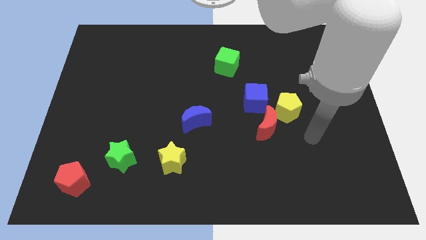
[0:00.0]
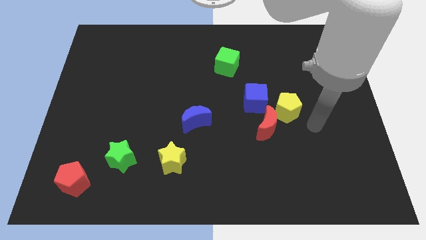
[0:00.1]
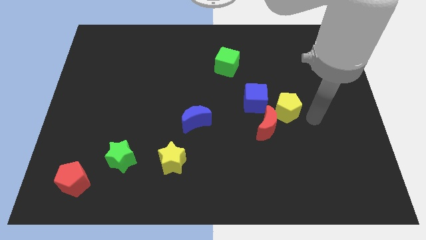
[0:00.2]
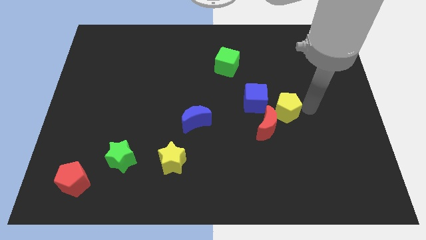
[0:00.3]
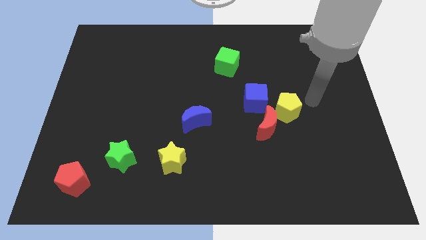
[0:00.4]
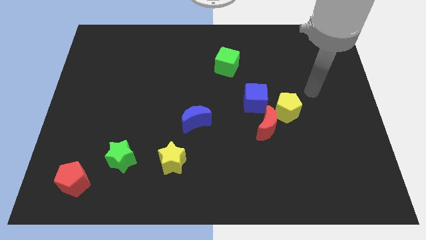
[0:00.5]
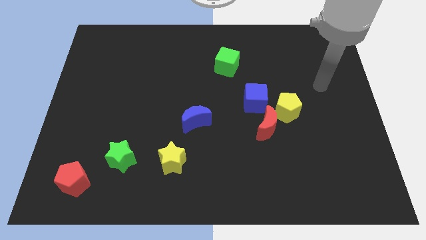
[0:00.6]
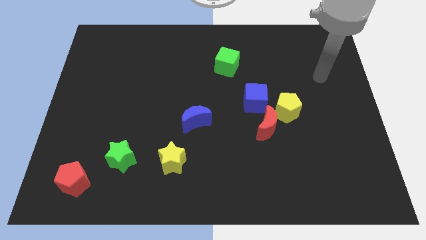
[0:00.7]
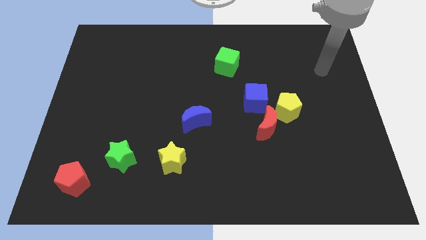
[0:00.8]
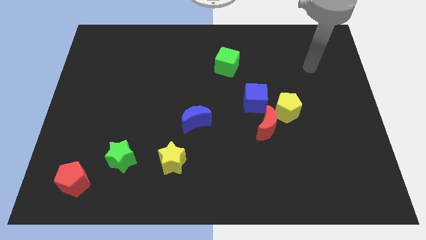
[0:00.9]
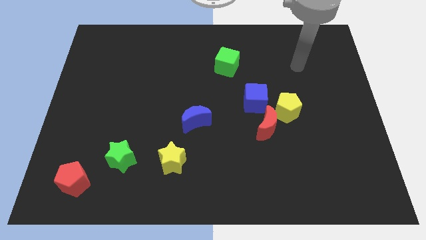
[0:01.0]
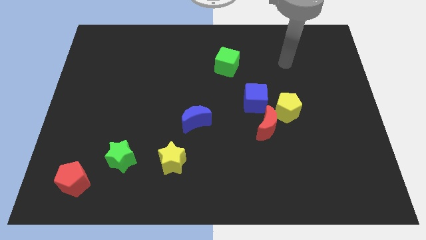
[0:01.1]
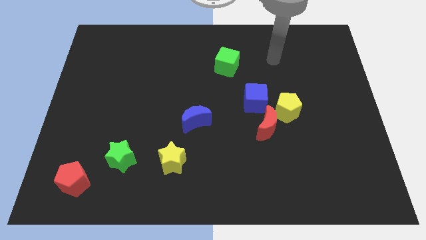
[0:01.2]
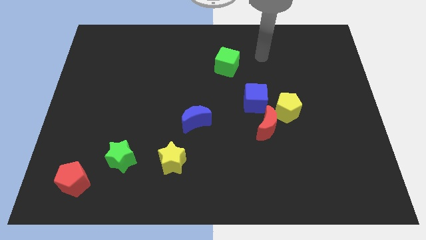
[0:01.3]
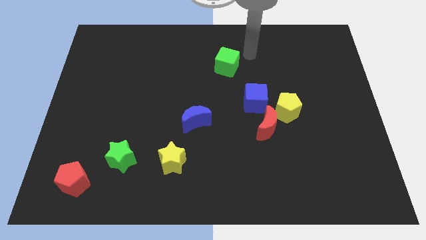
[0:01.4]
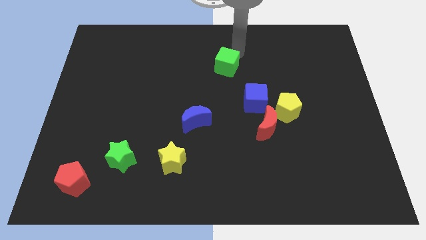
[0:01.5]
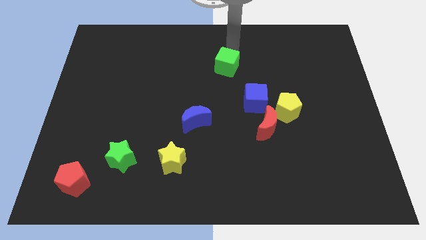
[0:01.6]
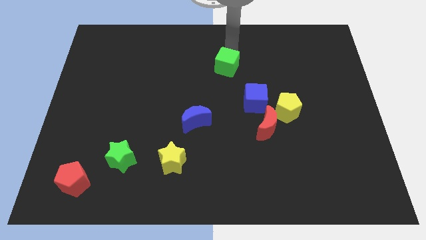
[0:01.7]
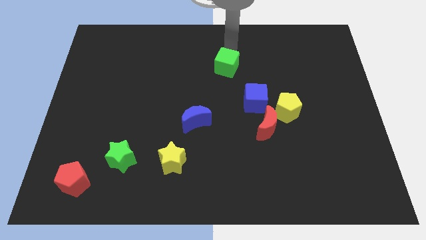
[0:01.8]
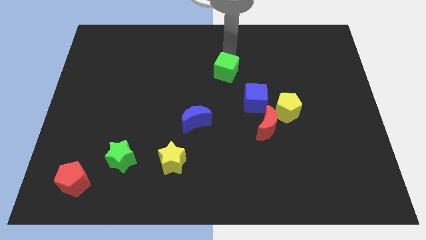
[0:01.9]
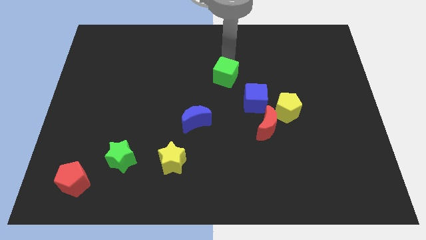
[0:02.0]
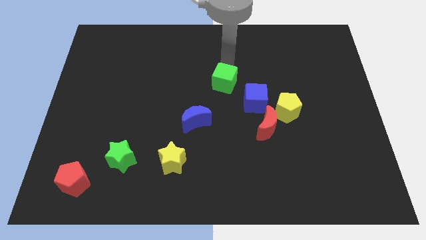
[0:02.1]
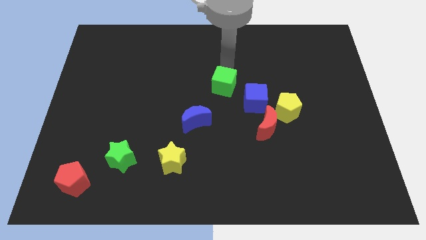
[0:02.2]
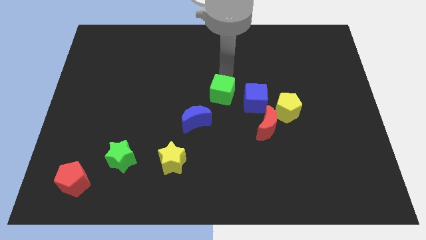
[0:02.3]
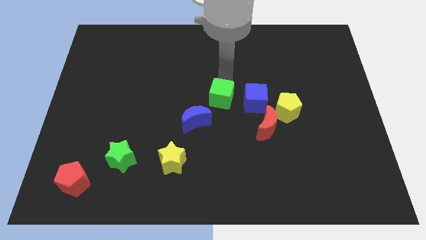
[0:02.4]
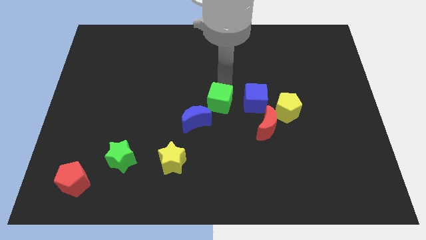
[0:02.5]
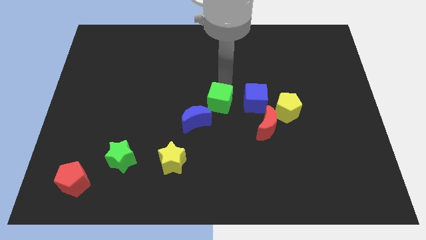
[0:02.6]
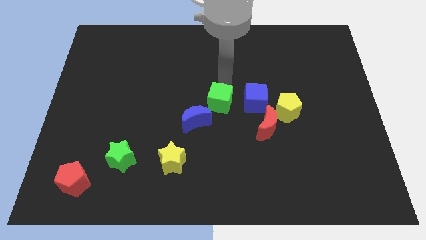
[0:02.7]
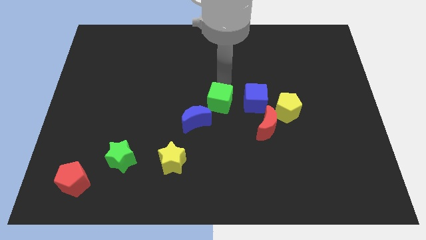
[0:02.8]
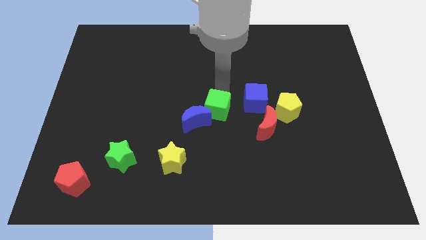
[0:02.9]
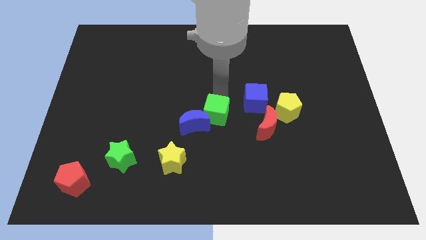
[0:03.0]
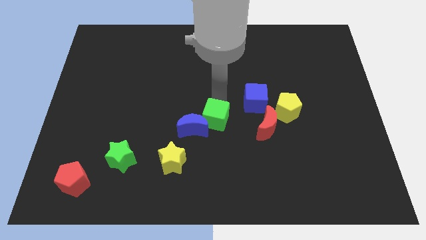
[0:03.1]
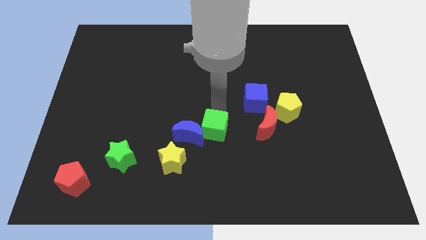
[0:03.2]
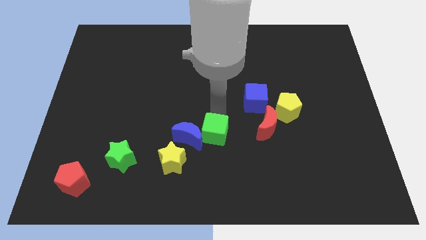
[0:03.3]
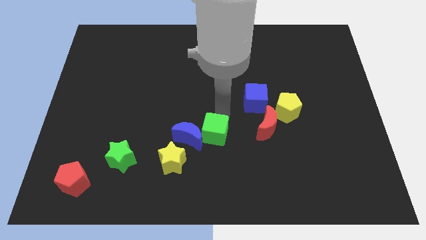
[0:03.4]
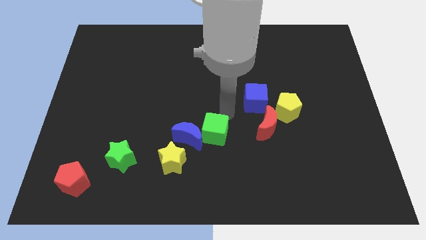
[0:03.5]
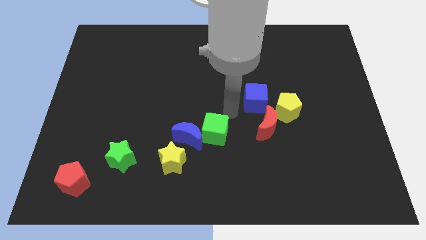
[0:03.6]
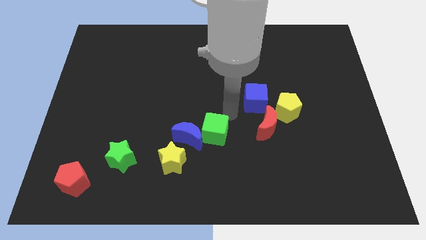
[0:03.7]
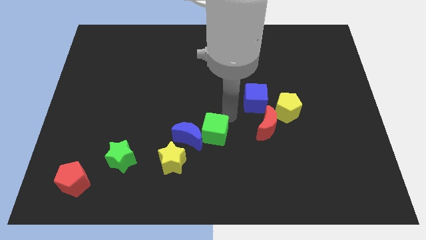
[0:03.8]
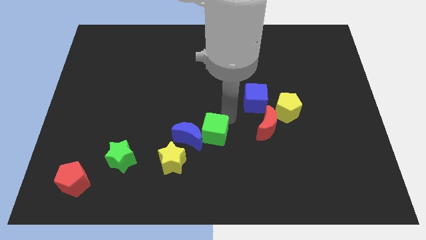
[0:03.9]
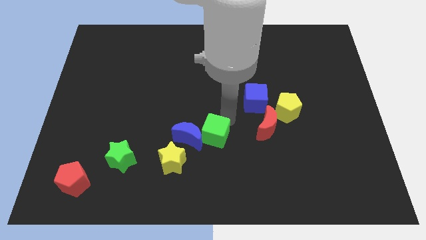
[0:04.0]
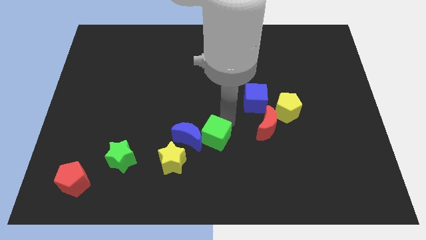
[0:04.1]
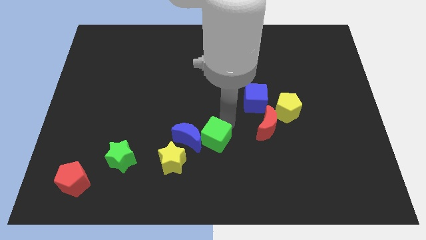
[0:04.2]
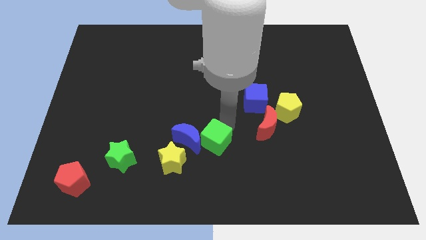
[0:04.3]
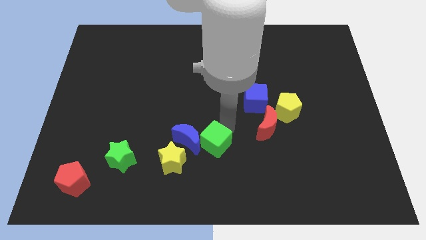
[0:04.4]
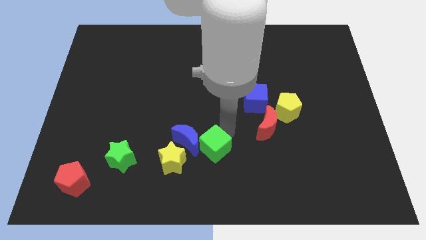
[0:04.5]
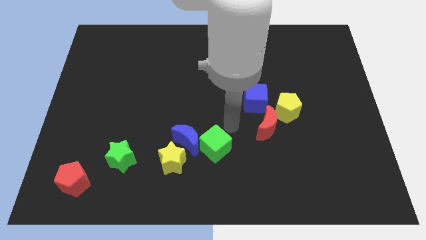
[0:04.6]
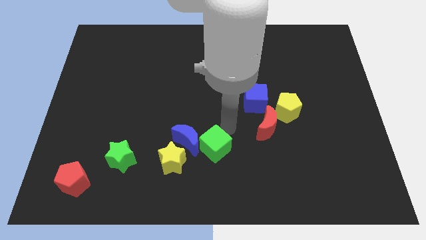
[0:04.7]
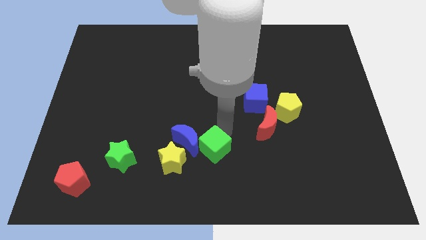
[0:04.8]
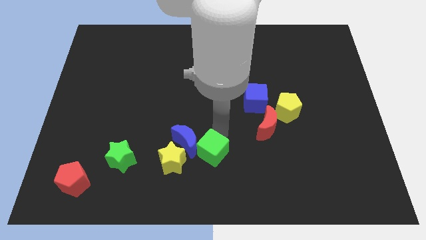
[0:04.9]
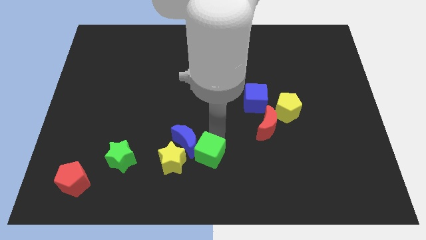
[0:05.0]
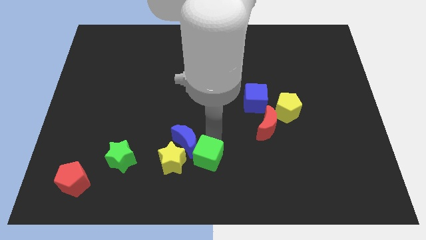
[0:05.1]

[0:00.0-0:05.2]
slide the green cube below the blue moon

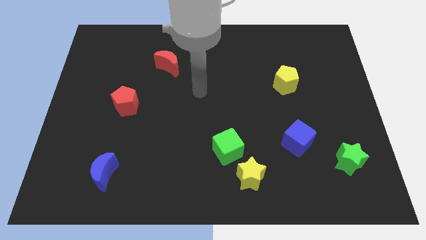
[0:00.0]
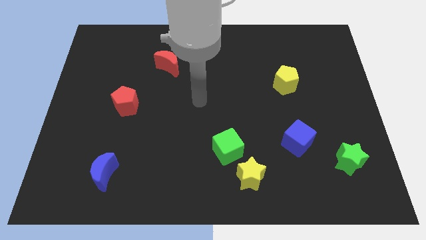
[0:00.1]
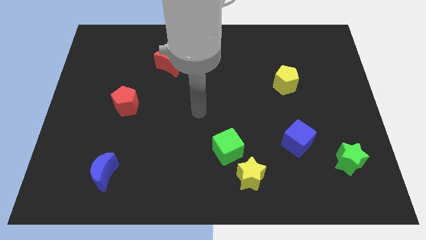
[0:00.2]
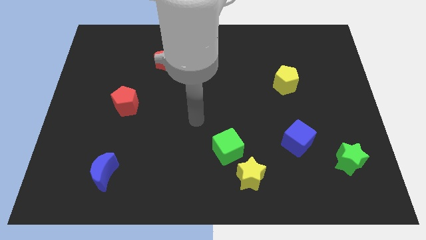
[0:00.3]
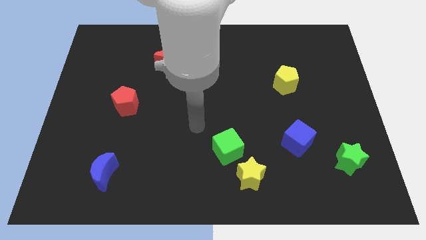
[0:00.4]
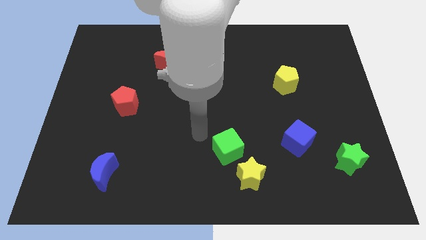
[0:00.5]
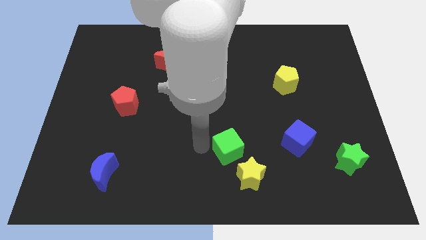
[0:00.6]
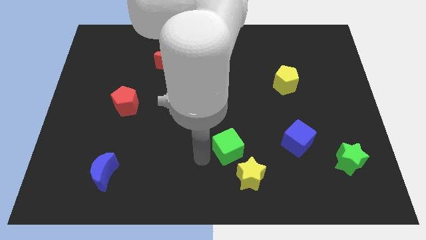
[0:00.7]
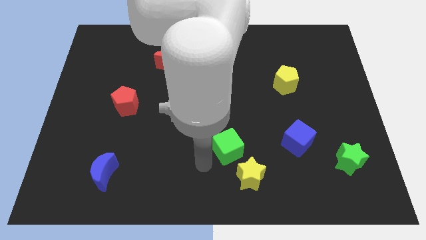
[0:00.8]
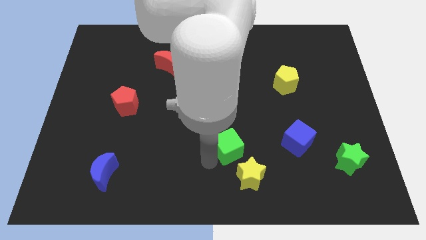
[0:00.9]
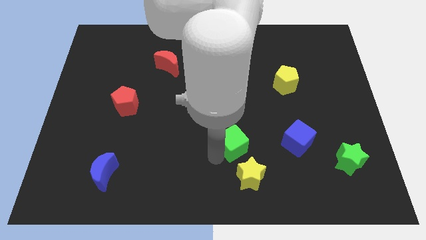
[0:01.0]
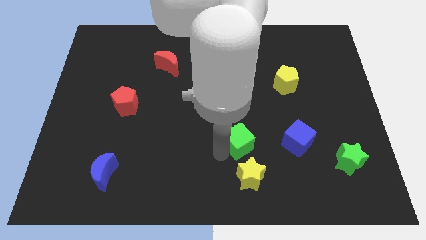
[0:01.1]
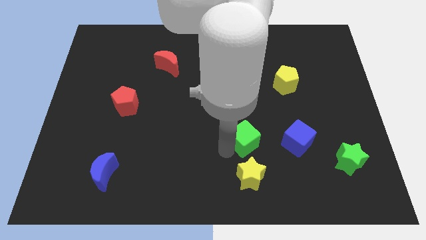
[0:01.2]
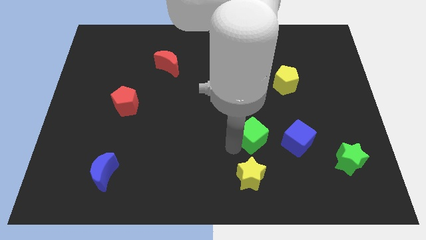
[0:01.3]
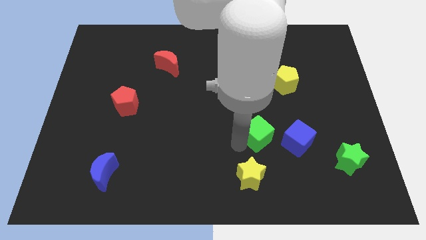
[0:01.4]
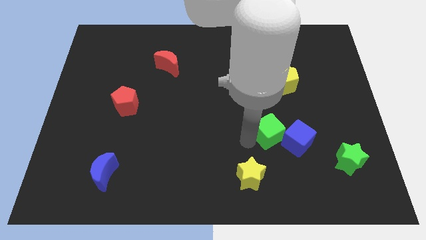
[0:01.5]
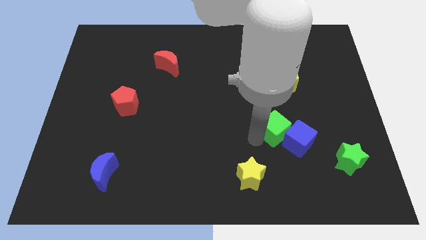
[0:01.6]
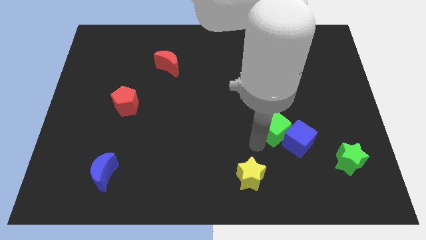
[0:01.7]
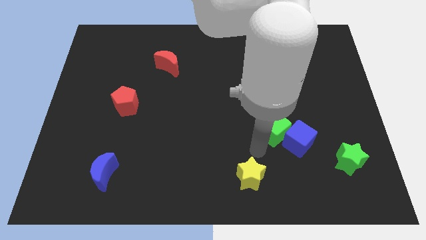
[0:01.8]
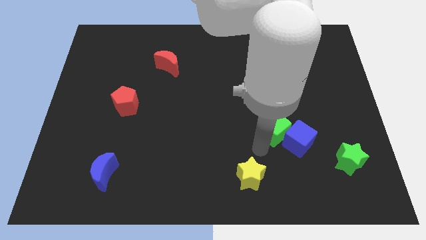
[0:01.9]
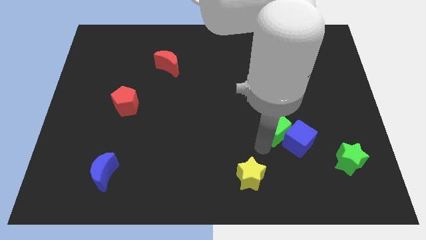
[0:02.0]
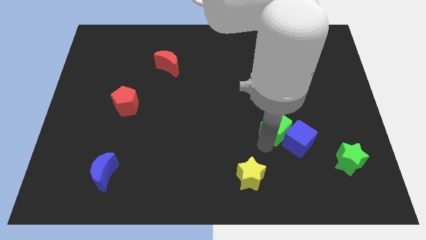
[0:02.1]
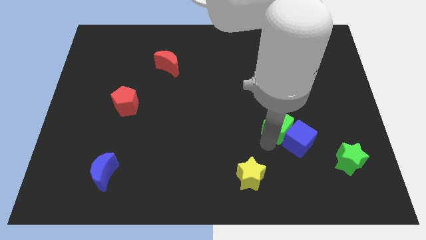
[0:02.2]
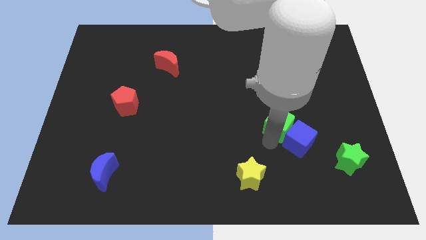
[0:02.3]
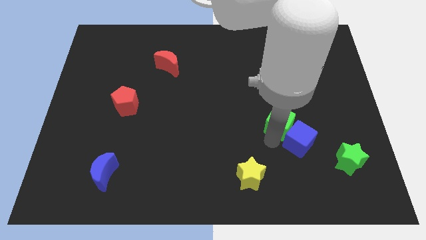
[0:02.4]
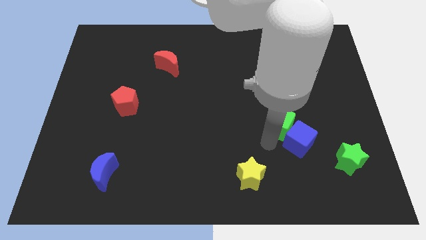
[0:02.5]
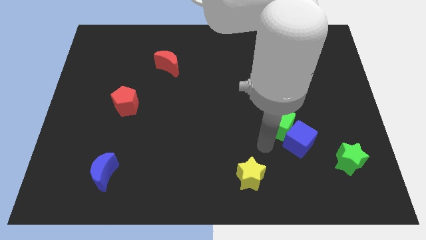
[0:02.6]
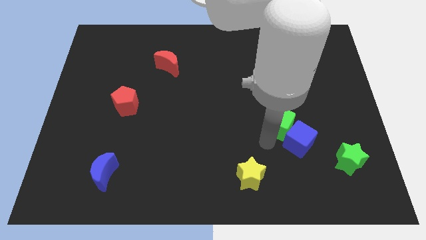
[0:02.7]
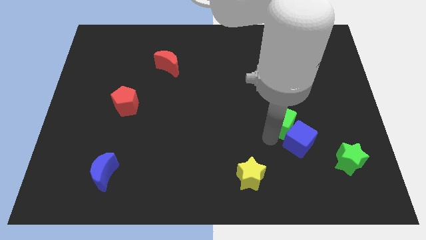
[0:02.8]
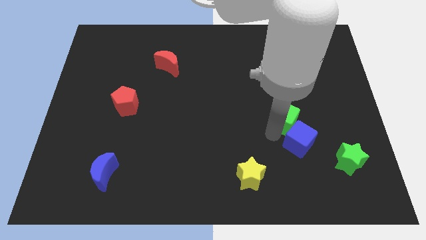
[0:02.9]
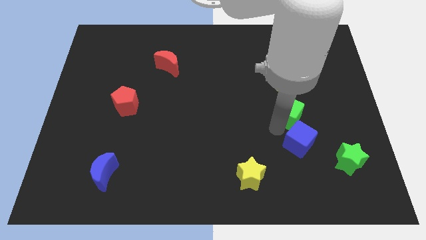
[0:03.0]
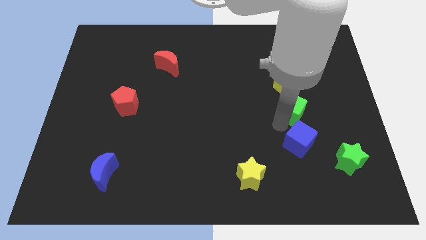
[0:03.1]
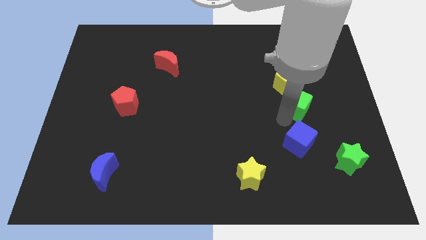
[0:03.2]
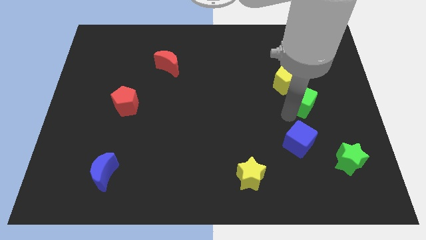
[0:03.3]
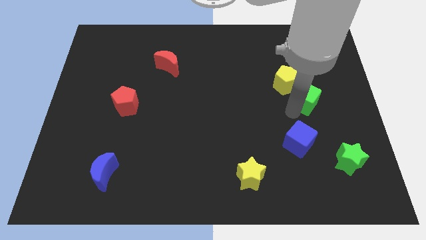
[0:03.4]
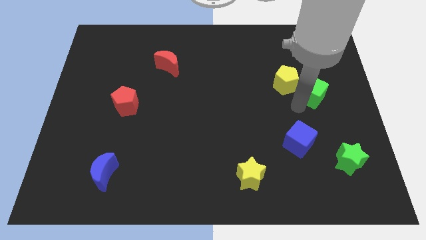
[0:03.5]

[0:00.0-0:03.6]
put the green cube just right of the yellow pentagon
